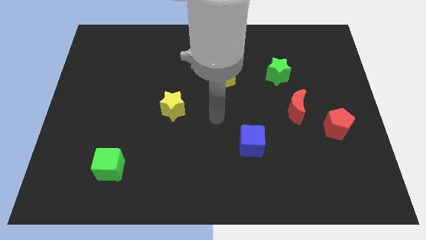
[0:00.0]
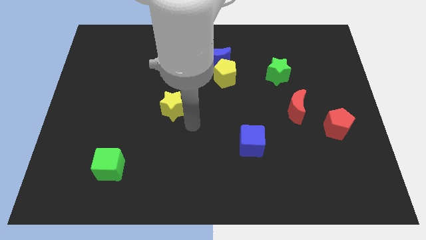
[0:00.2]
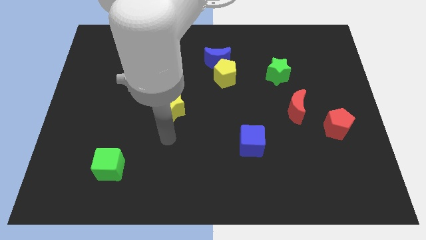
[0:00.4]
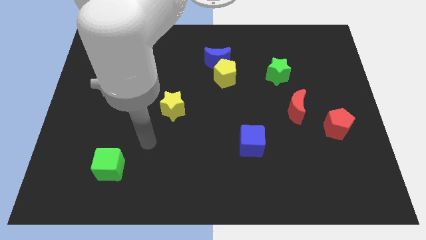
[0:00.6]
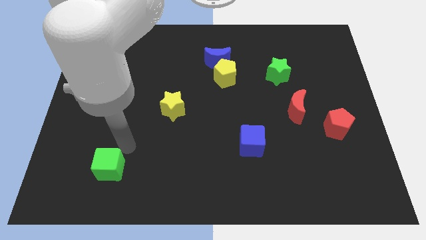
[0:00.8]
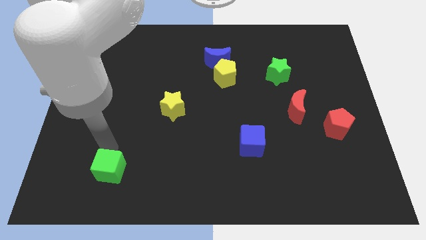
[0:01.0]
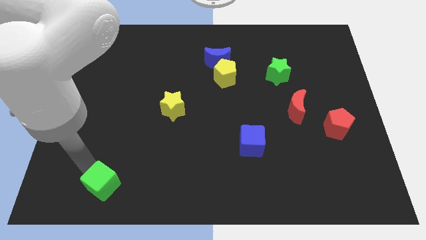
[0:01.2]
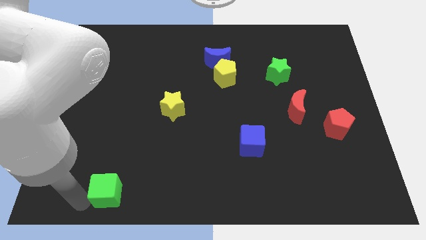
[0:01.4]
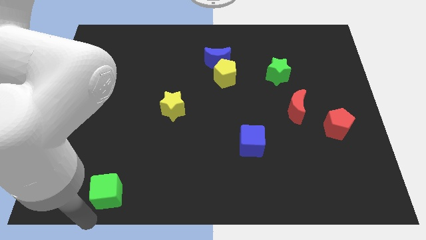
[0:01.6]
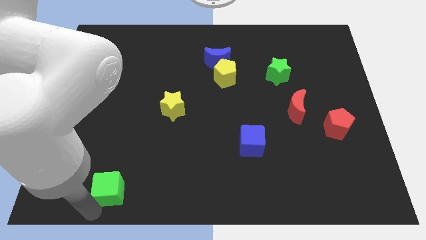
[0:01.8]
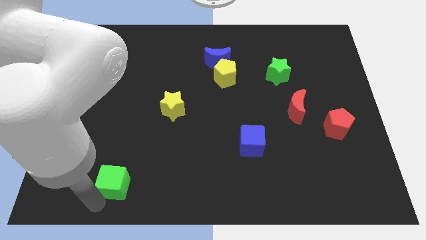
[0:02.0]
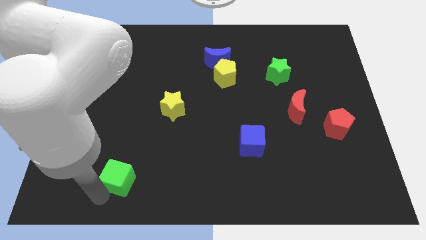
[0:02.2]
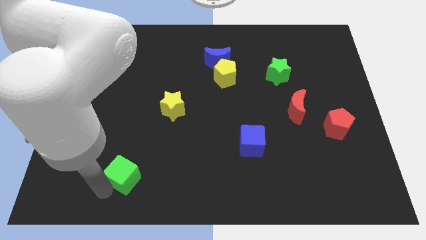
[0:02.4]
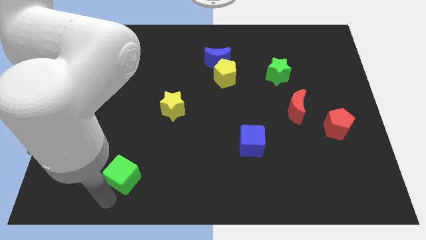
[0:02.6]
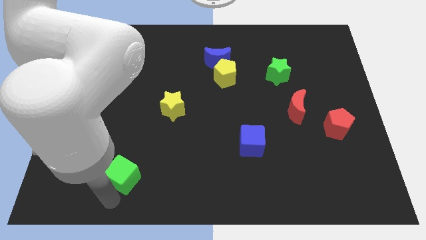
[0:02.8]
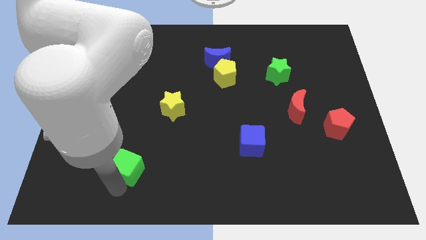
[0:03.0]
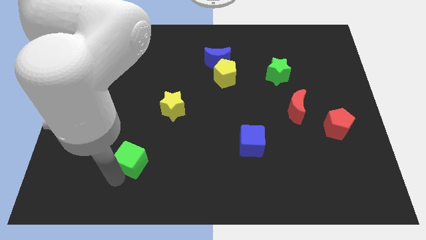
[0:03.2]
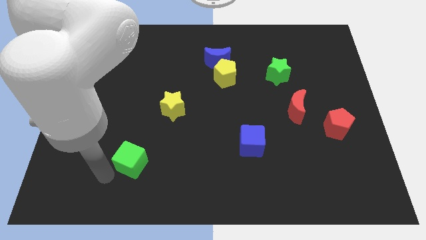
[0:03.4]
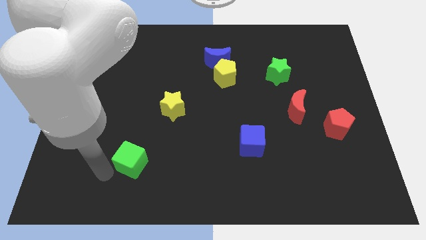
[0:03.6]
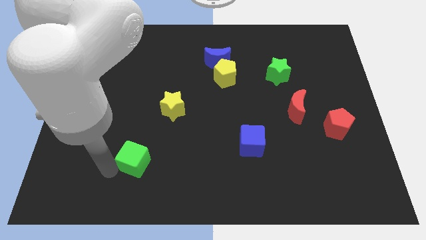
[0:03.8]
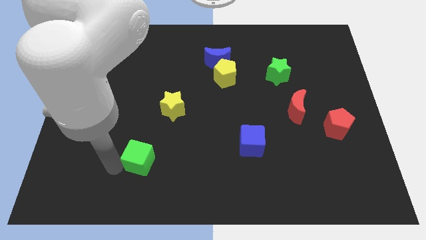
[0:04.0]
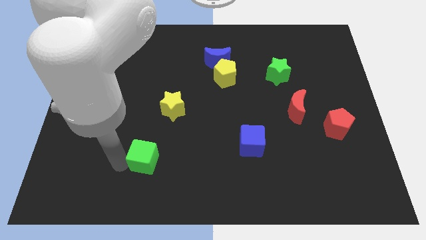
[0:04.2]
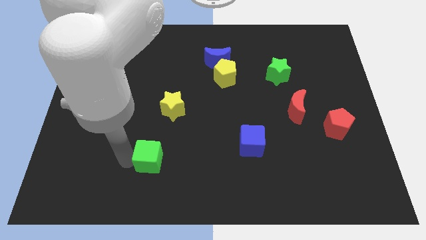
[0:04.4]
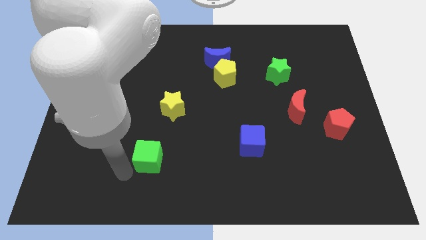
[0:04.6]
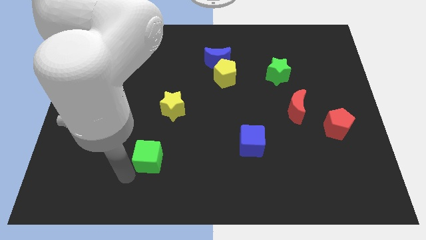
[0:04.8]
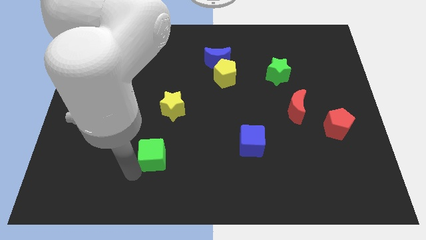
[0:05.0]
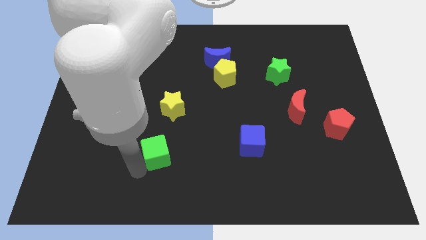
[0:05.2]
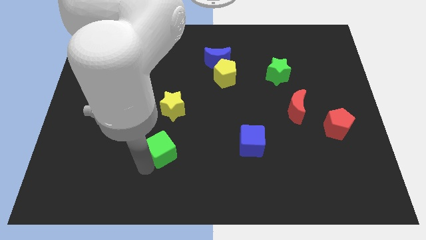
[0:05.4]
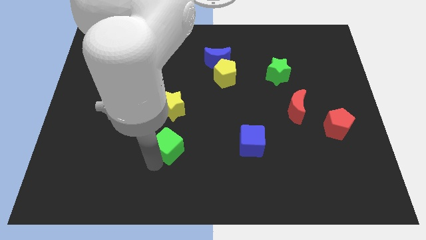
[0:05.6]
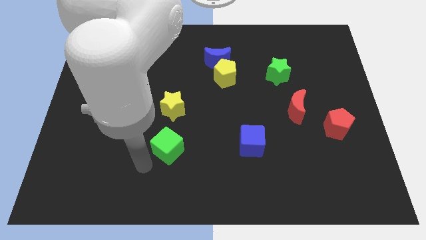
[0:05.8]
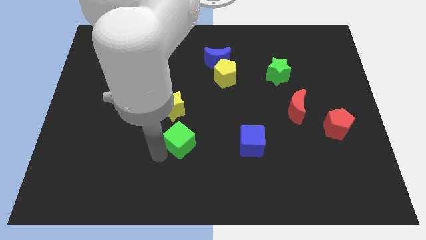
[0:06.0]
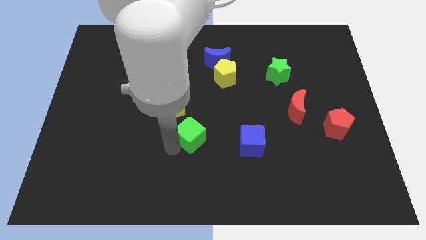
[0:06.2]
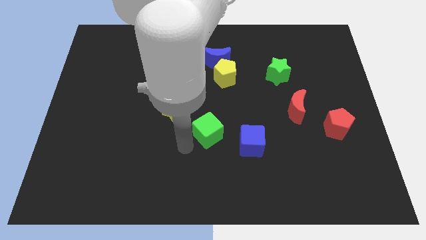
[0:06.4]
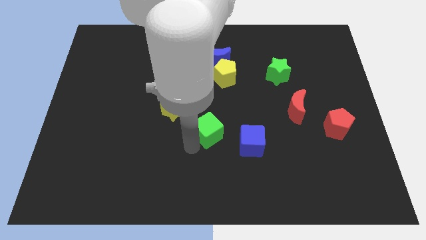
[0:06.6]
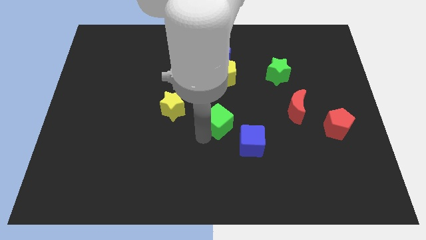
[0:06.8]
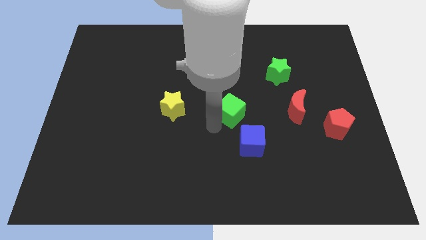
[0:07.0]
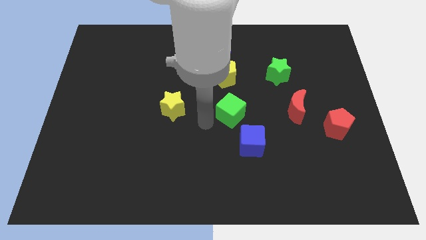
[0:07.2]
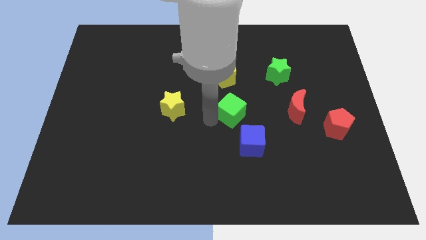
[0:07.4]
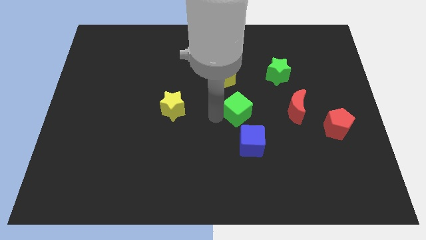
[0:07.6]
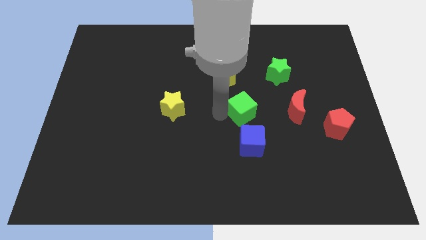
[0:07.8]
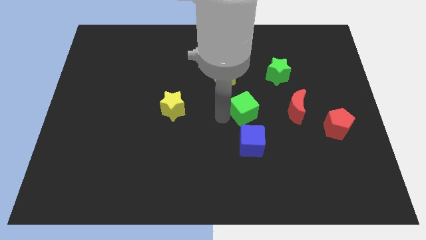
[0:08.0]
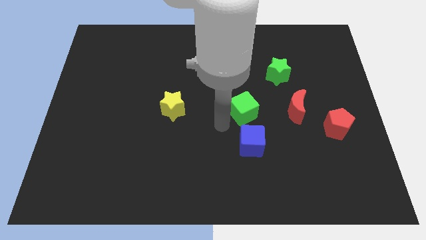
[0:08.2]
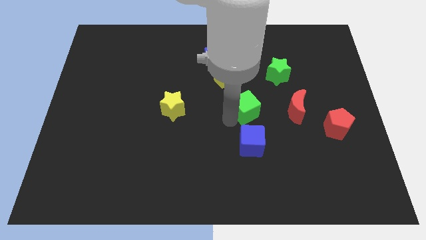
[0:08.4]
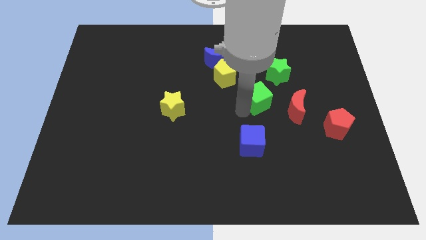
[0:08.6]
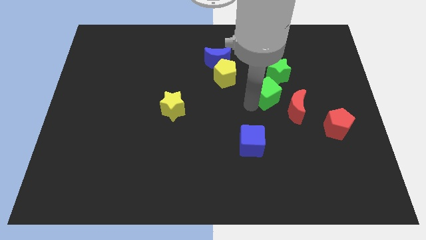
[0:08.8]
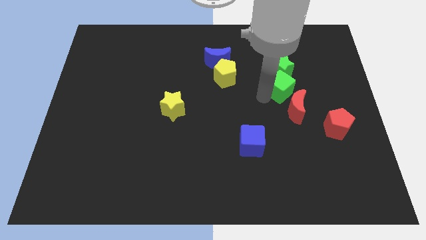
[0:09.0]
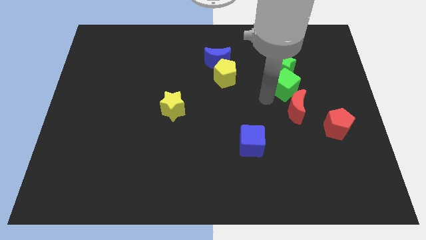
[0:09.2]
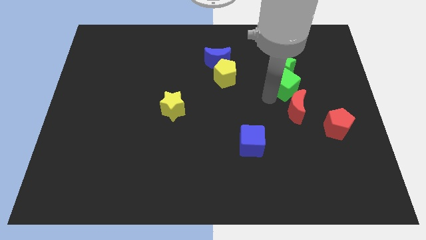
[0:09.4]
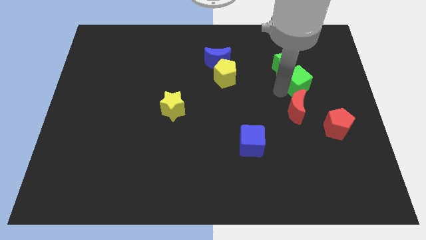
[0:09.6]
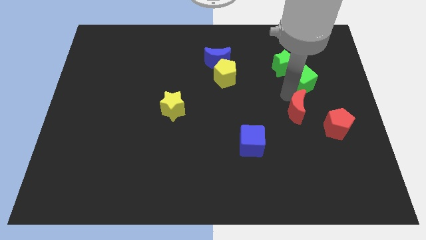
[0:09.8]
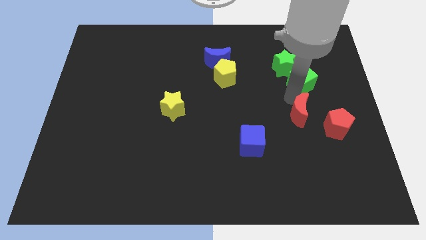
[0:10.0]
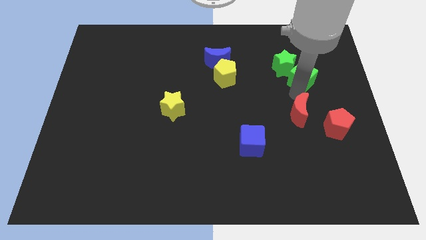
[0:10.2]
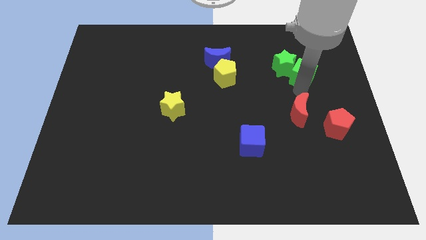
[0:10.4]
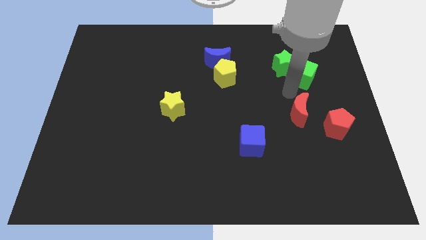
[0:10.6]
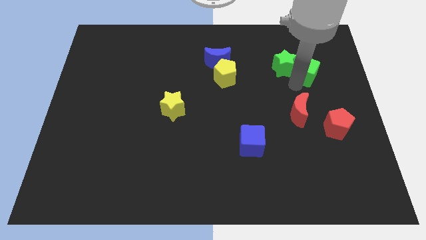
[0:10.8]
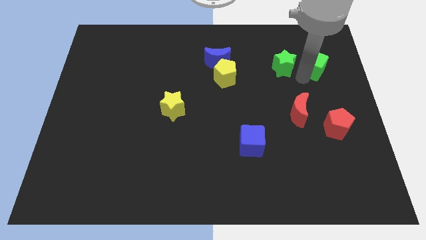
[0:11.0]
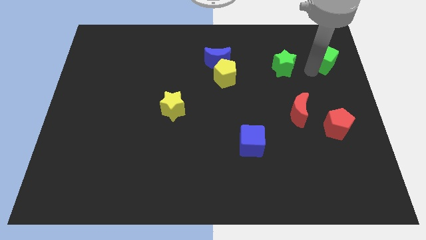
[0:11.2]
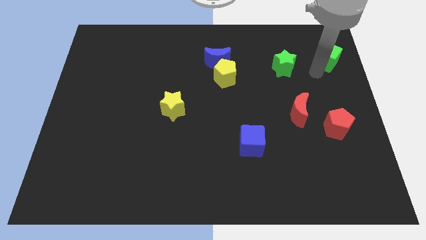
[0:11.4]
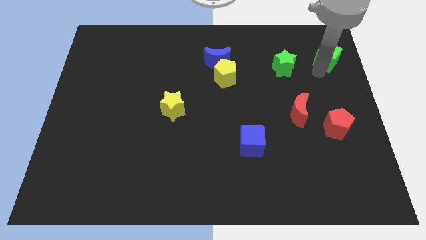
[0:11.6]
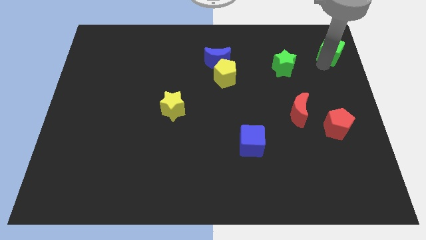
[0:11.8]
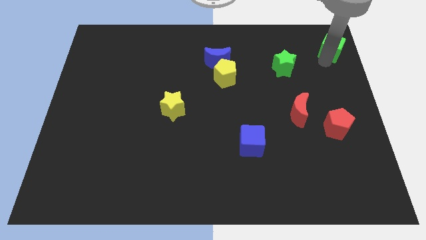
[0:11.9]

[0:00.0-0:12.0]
push the green cube to the upper right corner
